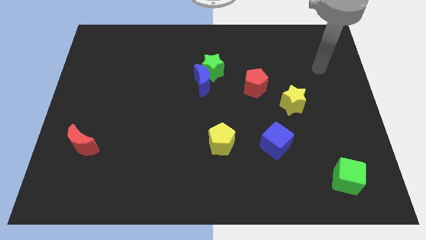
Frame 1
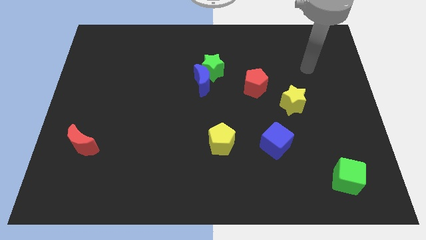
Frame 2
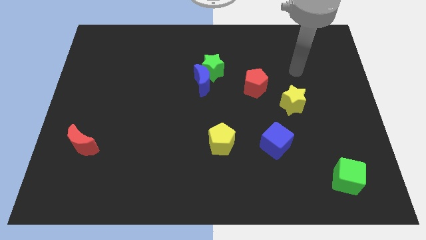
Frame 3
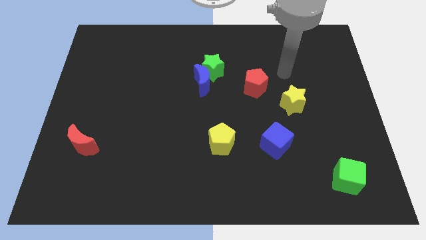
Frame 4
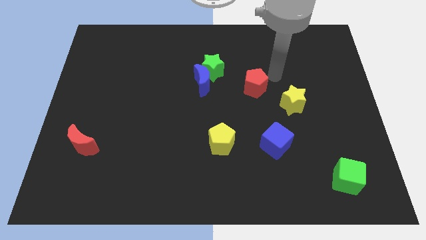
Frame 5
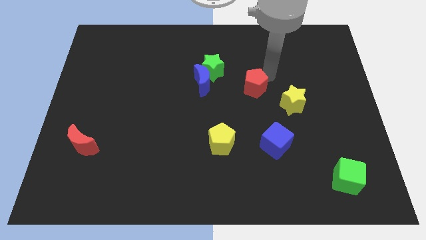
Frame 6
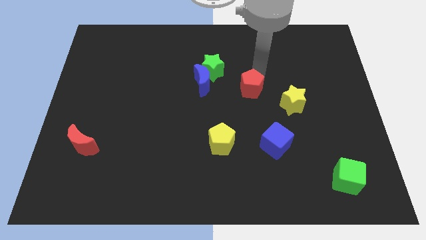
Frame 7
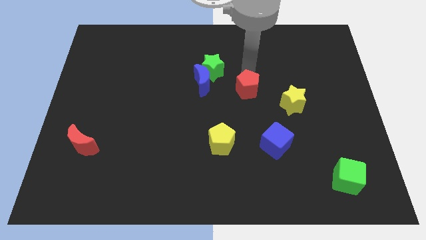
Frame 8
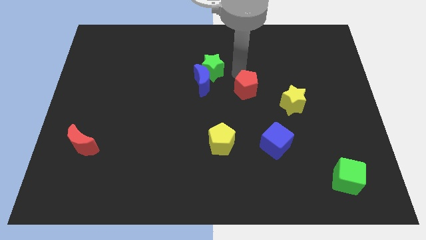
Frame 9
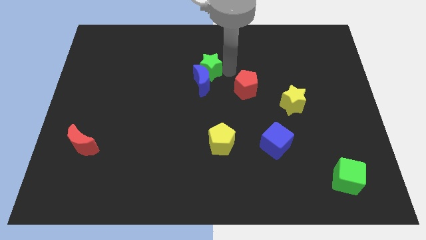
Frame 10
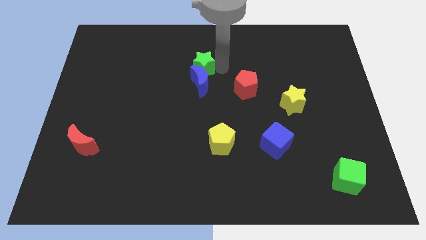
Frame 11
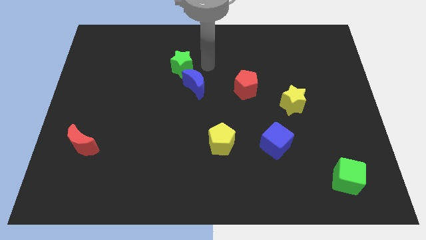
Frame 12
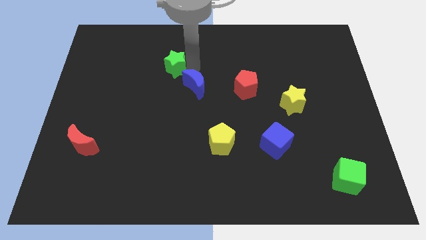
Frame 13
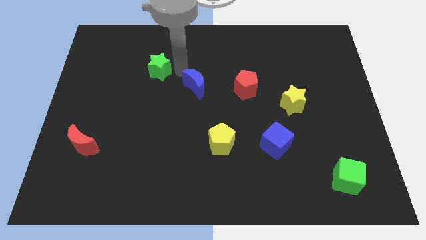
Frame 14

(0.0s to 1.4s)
pull the blue moon apart from the green star

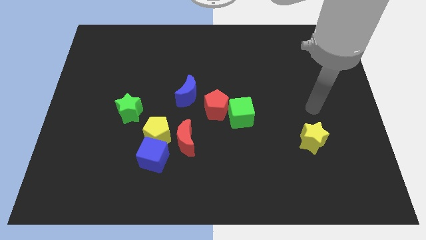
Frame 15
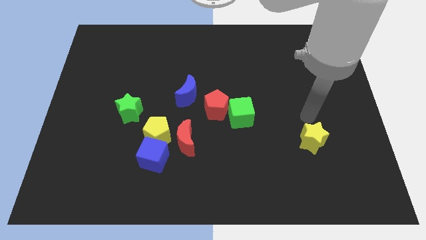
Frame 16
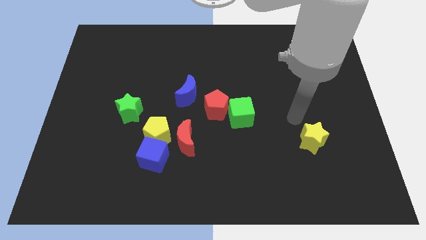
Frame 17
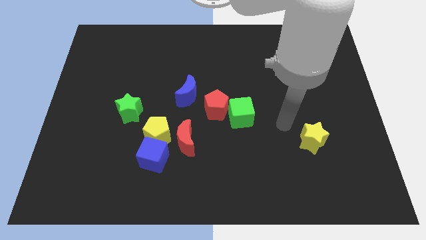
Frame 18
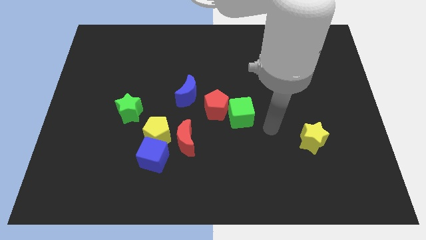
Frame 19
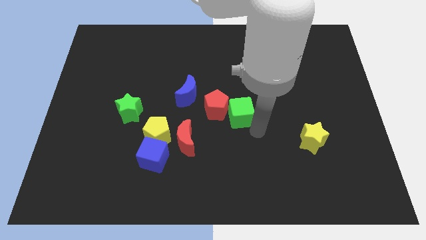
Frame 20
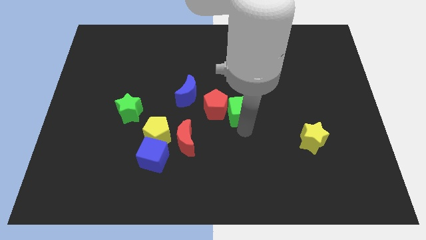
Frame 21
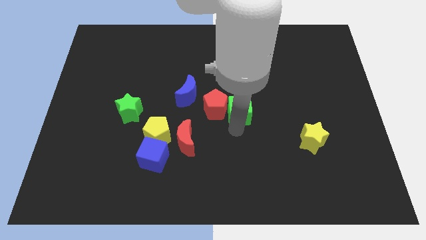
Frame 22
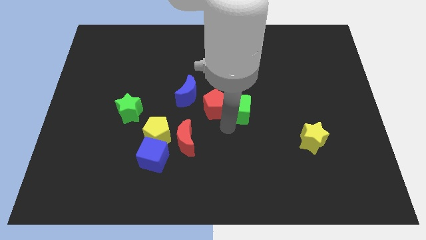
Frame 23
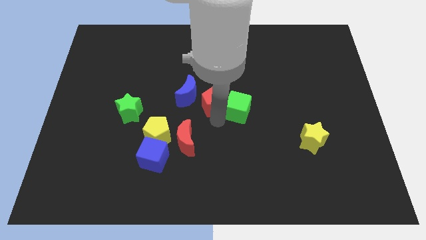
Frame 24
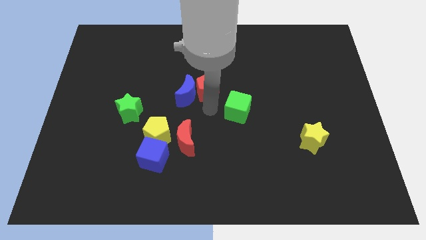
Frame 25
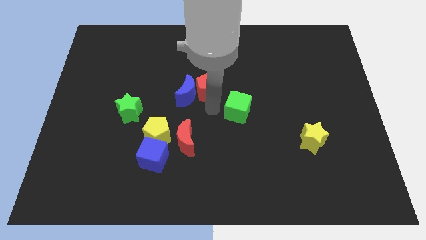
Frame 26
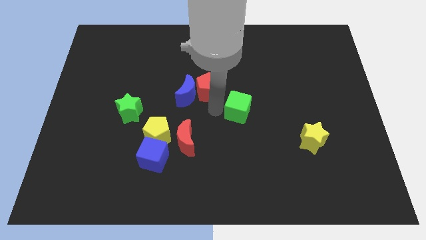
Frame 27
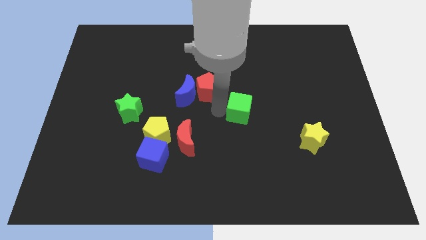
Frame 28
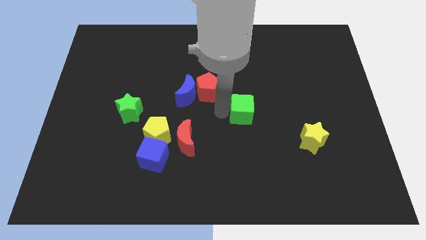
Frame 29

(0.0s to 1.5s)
separate the green cube from the red pentagon

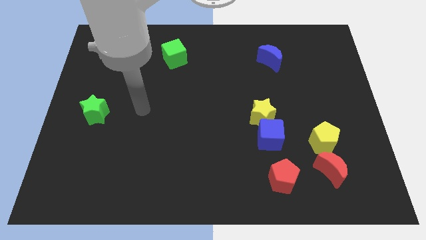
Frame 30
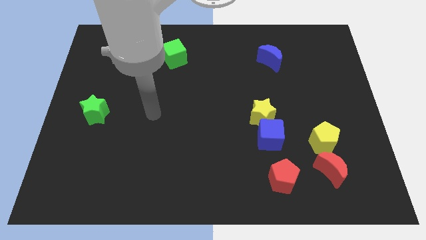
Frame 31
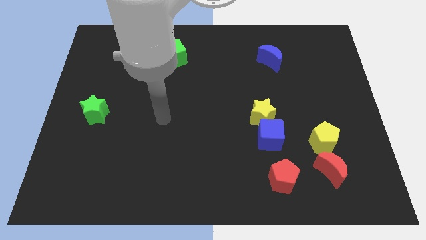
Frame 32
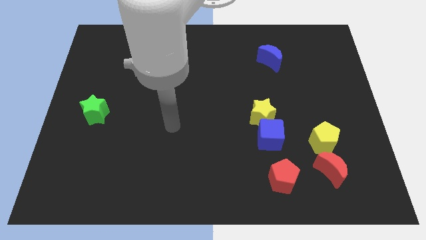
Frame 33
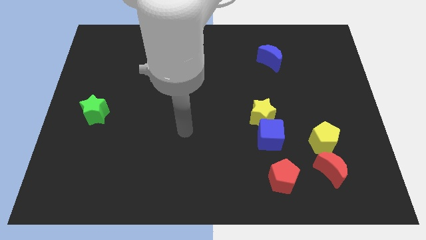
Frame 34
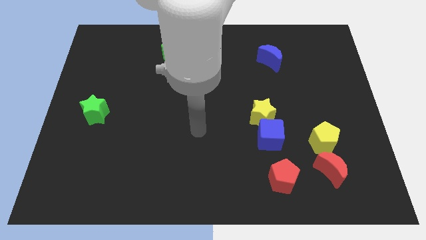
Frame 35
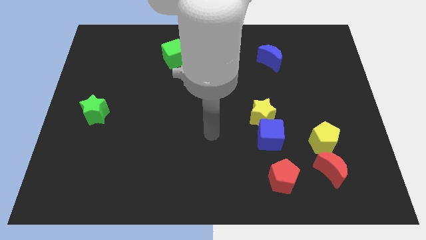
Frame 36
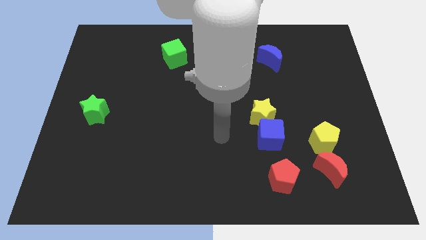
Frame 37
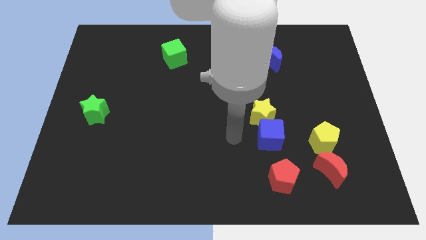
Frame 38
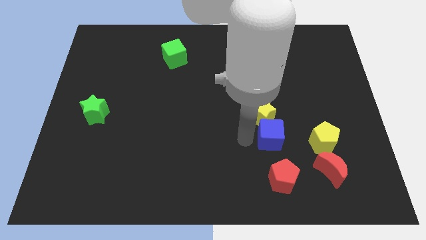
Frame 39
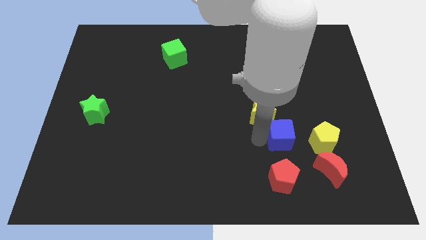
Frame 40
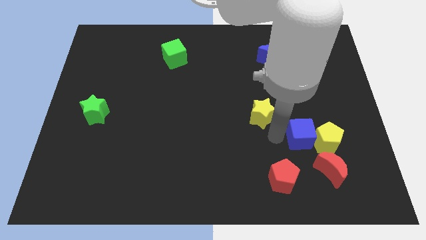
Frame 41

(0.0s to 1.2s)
move the yellow star away from the blue cube

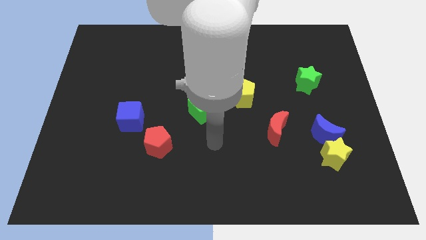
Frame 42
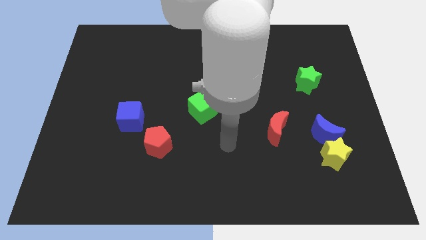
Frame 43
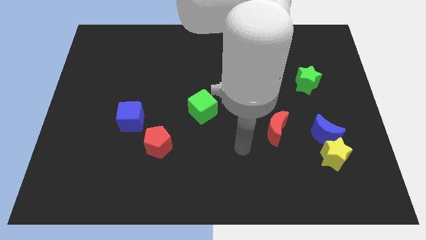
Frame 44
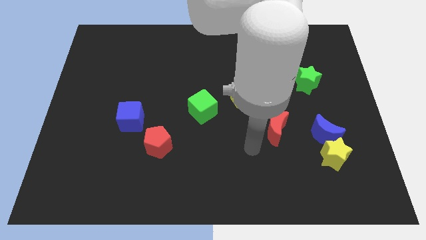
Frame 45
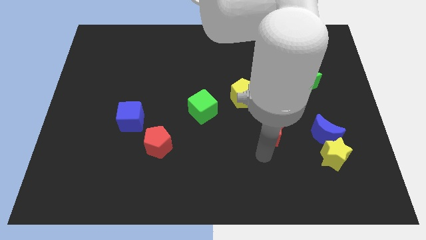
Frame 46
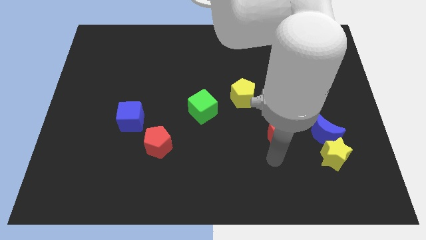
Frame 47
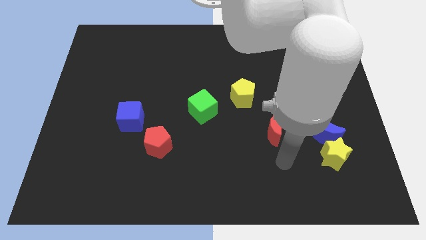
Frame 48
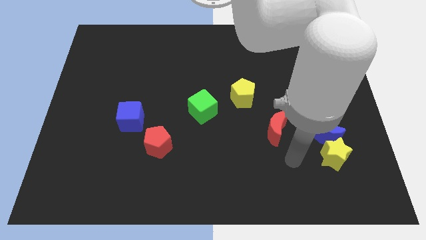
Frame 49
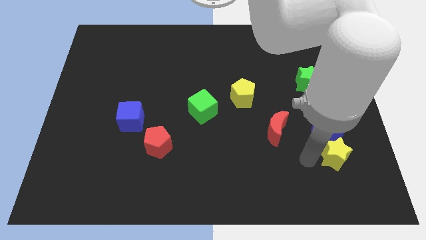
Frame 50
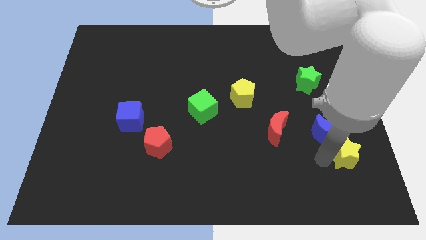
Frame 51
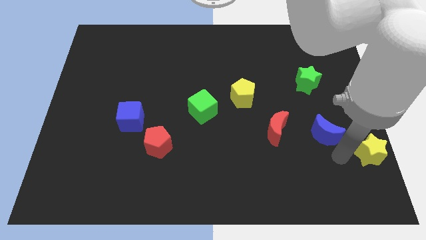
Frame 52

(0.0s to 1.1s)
move the blue moon away from the yellow star

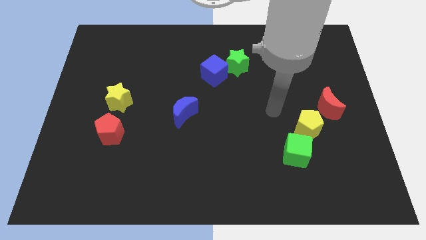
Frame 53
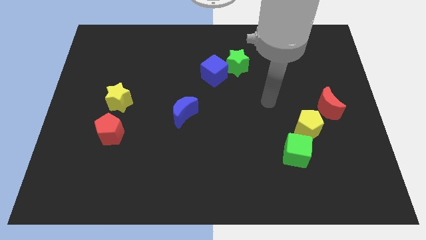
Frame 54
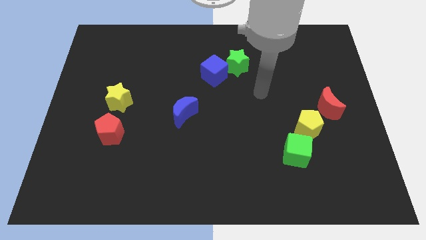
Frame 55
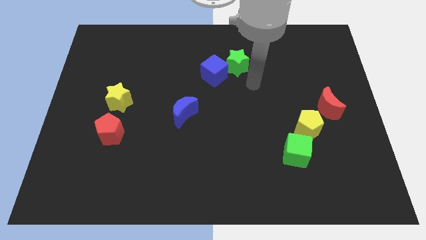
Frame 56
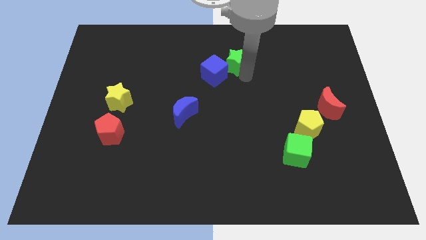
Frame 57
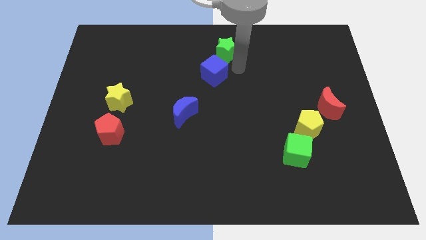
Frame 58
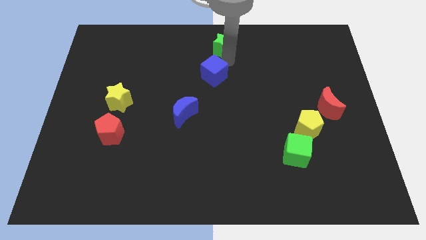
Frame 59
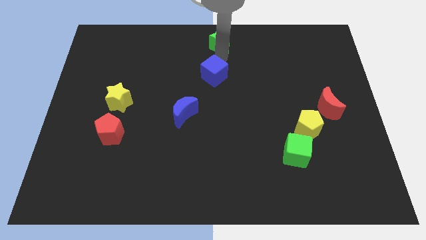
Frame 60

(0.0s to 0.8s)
separate the blue cube from the green star

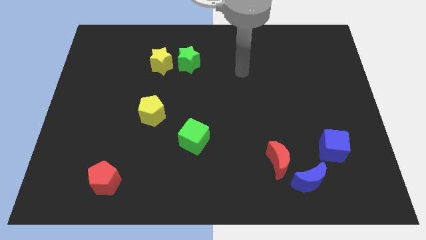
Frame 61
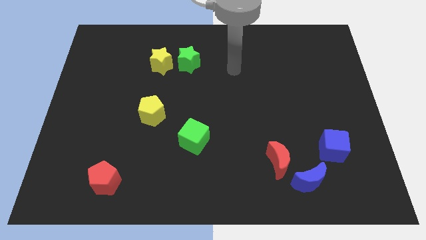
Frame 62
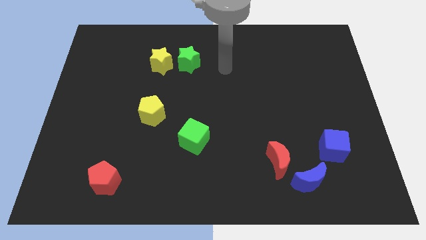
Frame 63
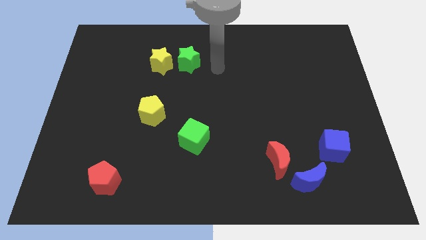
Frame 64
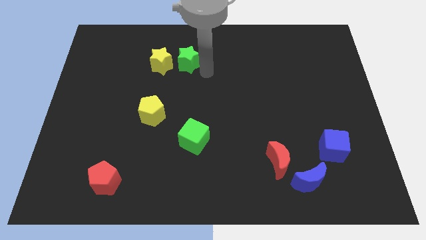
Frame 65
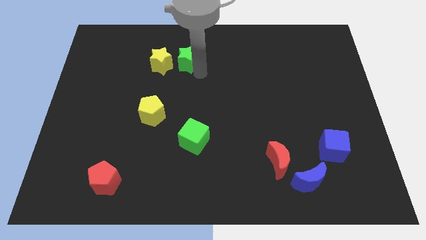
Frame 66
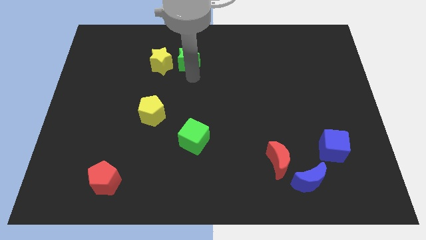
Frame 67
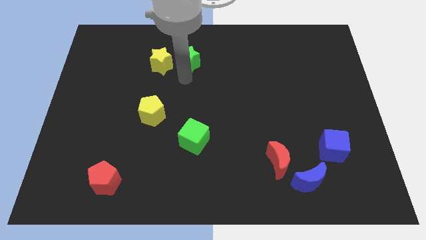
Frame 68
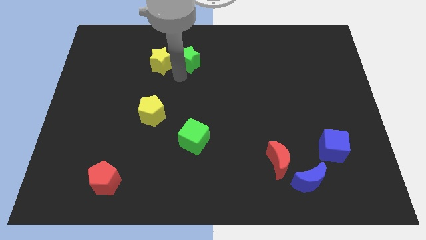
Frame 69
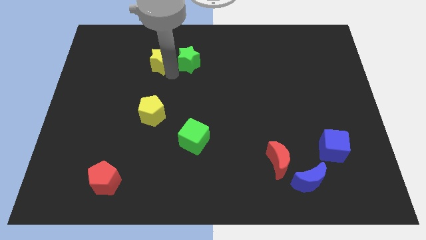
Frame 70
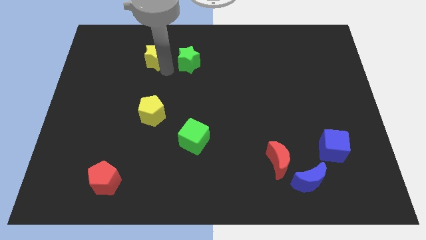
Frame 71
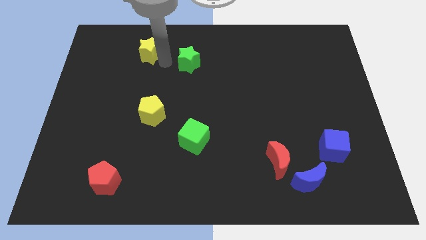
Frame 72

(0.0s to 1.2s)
move the green star away from the yellow star

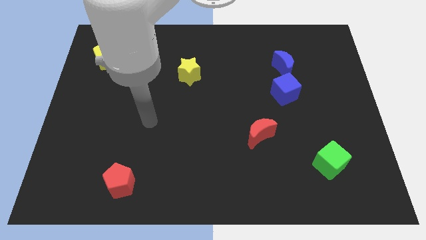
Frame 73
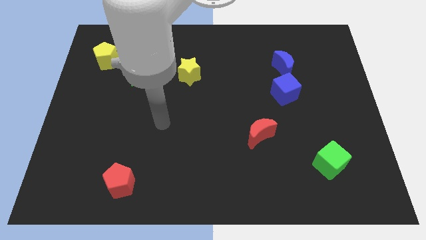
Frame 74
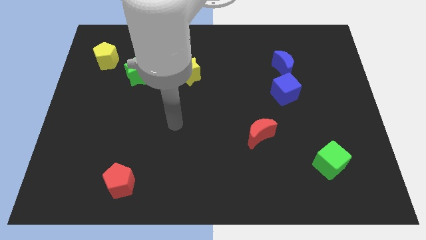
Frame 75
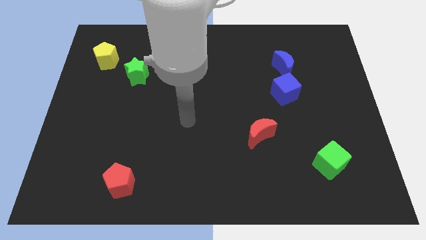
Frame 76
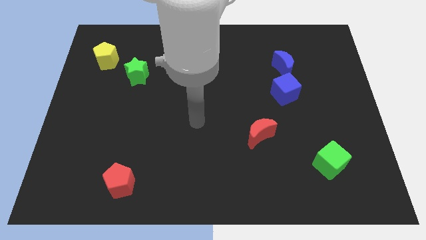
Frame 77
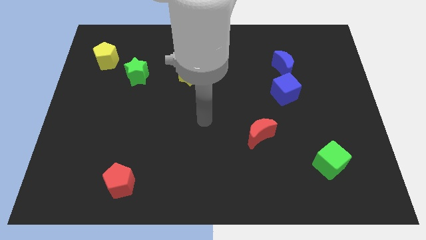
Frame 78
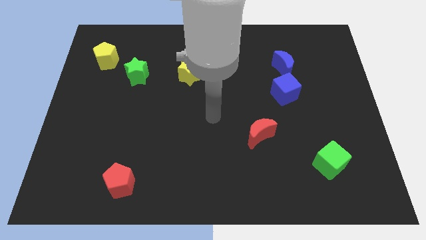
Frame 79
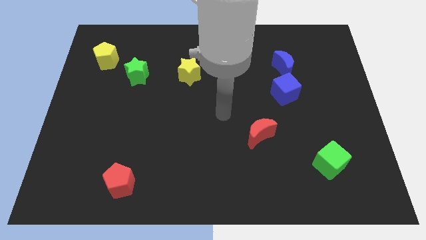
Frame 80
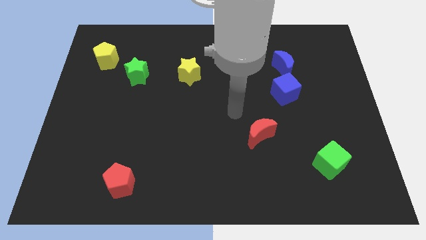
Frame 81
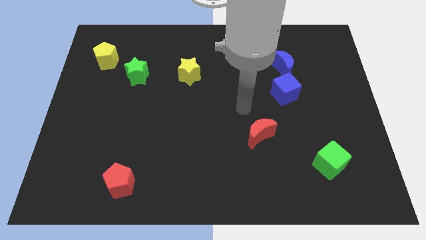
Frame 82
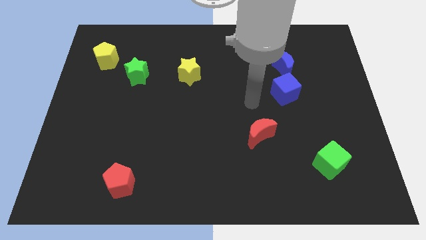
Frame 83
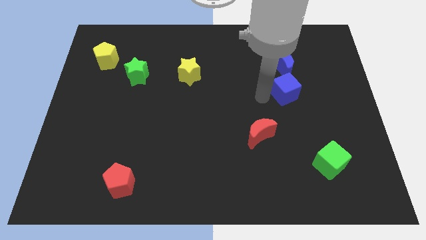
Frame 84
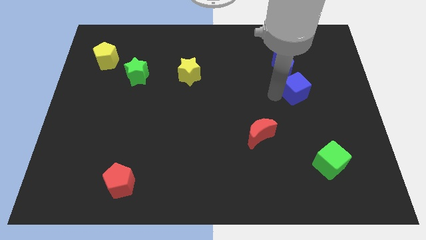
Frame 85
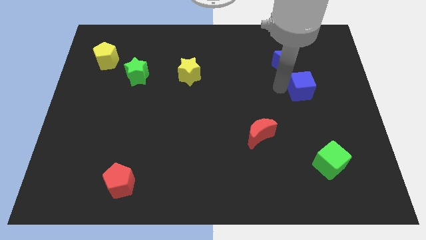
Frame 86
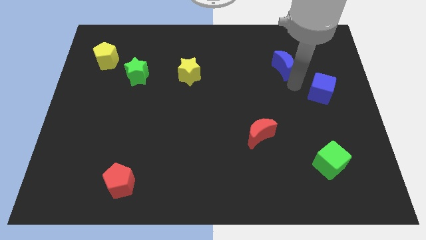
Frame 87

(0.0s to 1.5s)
move the blue moon away from the blue cube

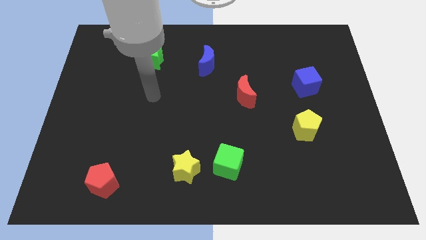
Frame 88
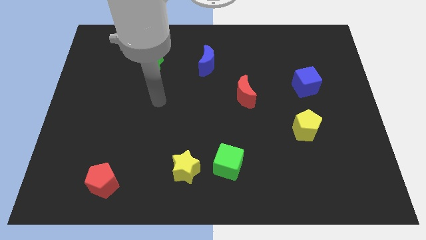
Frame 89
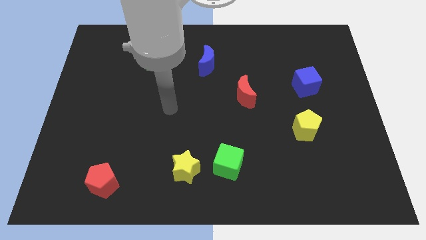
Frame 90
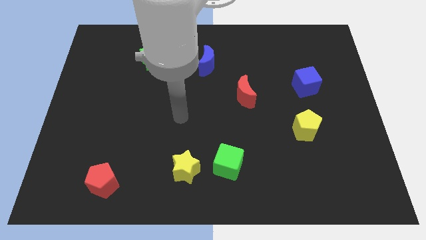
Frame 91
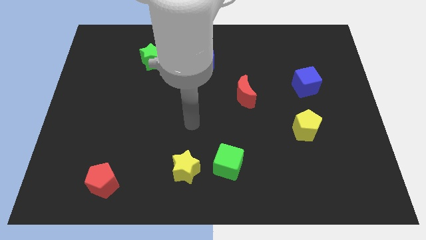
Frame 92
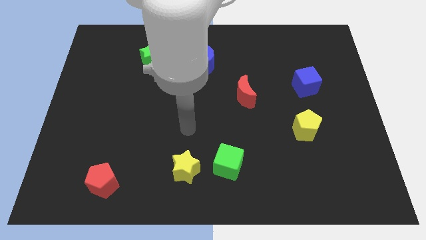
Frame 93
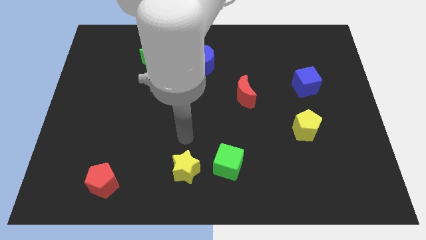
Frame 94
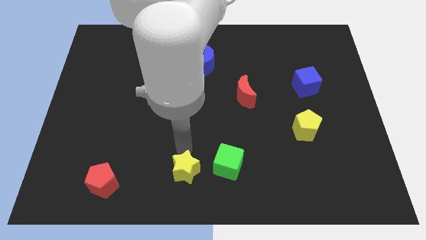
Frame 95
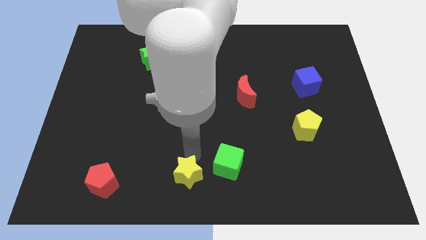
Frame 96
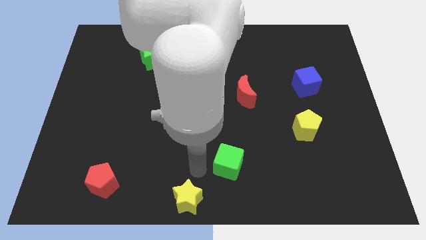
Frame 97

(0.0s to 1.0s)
separate the green cube from the yellow star
